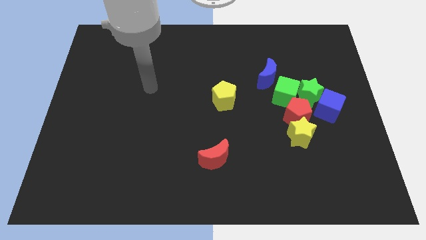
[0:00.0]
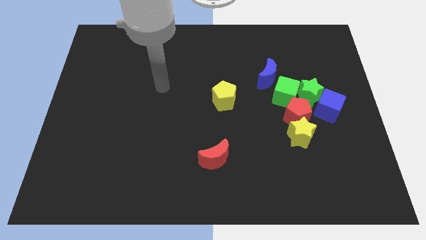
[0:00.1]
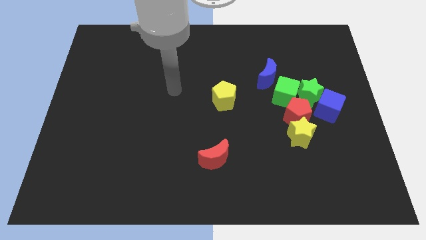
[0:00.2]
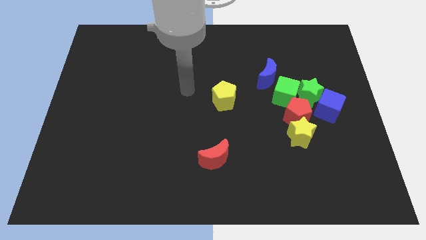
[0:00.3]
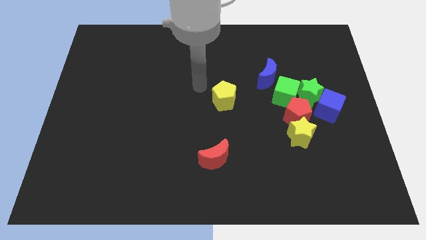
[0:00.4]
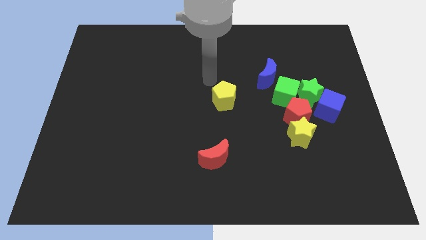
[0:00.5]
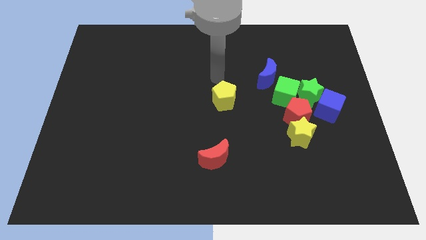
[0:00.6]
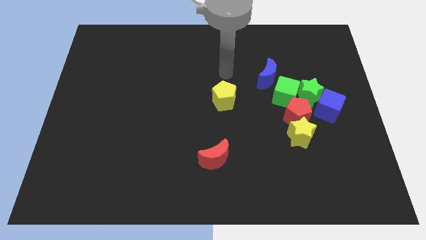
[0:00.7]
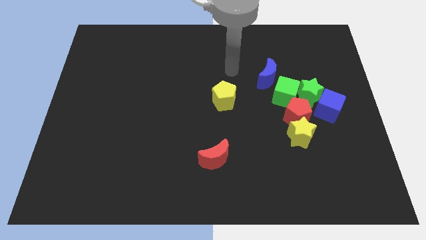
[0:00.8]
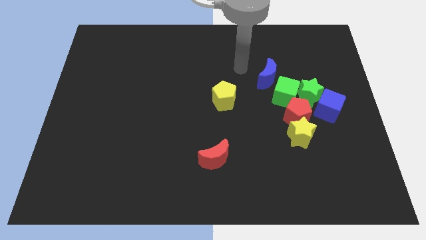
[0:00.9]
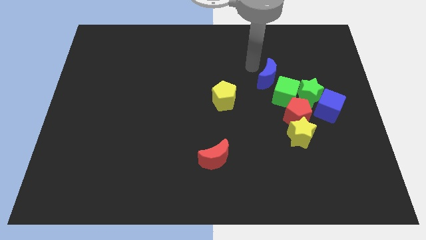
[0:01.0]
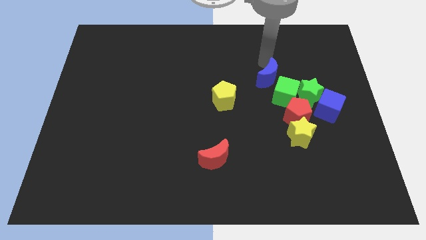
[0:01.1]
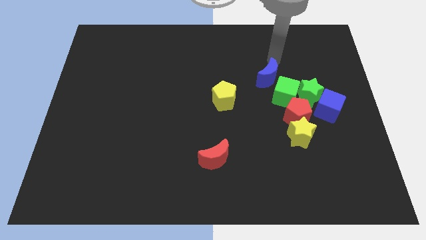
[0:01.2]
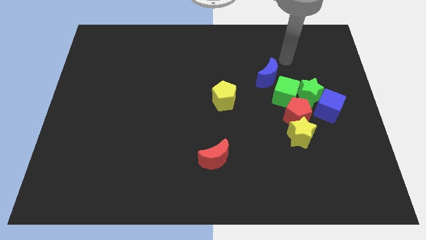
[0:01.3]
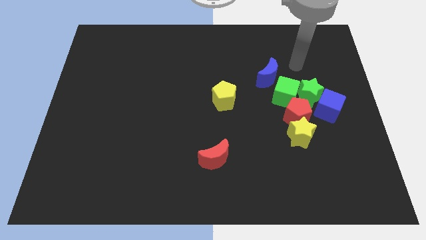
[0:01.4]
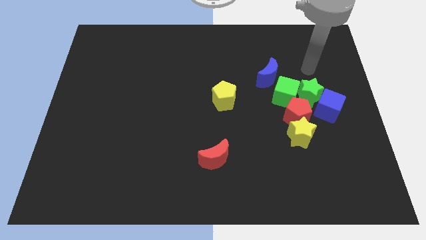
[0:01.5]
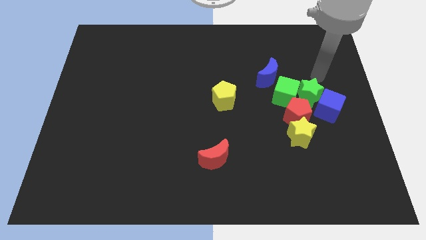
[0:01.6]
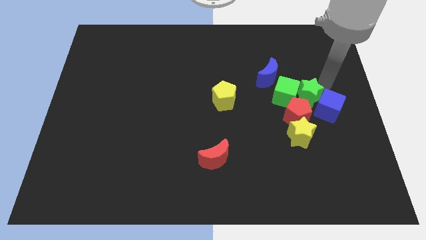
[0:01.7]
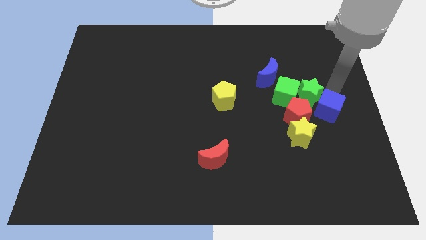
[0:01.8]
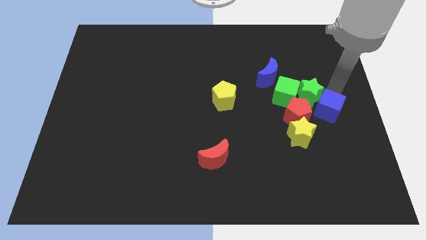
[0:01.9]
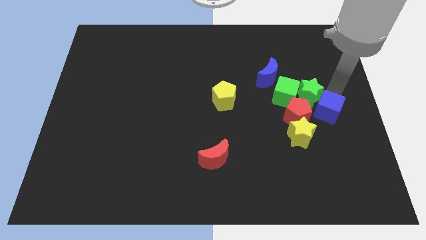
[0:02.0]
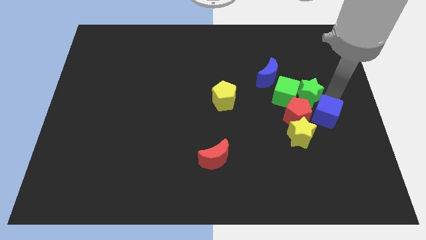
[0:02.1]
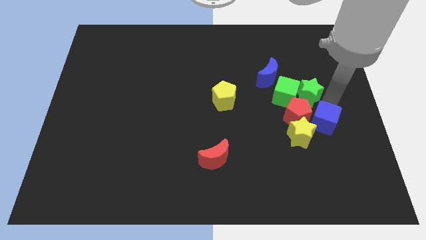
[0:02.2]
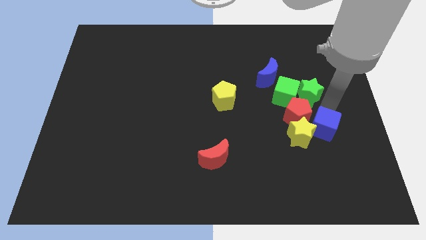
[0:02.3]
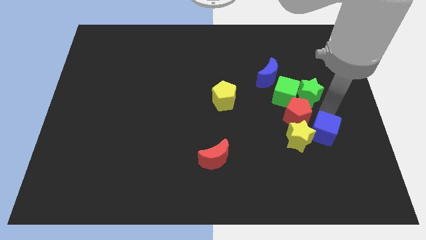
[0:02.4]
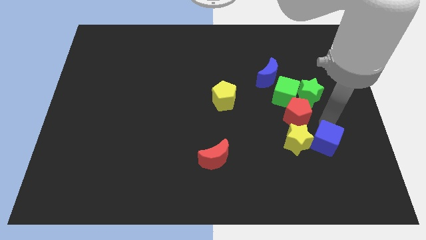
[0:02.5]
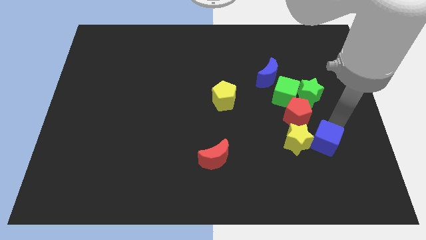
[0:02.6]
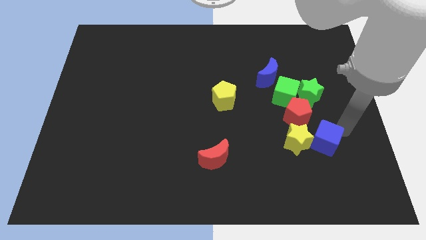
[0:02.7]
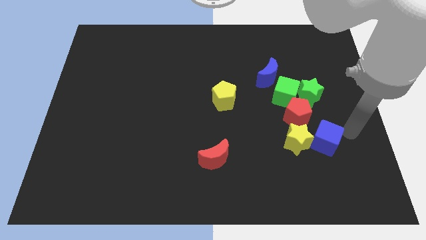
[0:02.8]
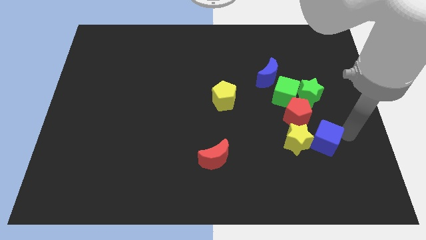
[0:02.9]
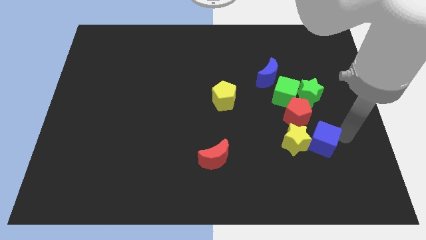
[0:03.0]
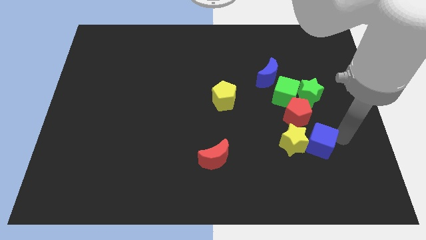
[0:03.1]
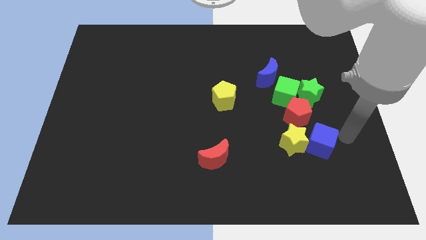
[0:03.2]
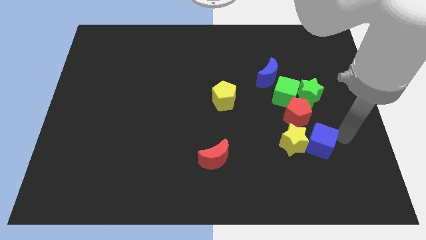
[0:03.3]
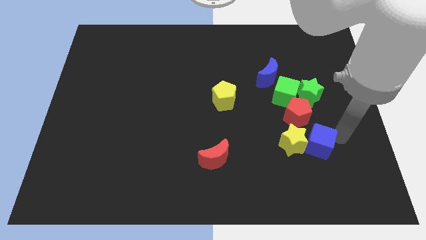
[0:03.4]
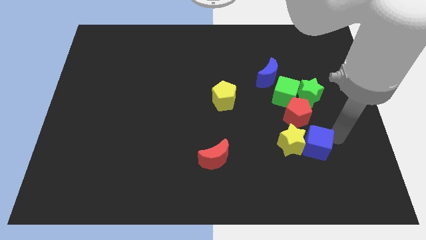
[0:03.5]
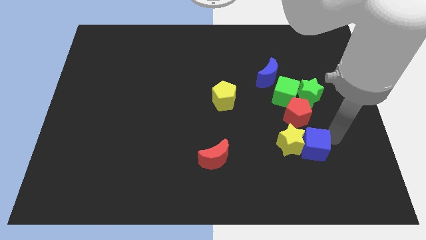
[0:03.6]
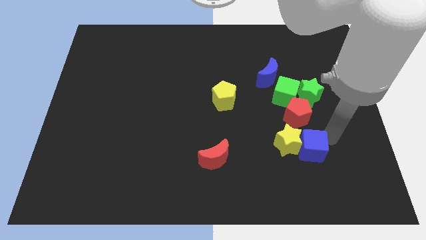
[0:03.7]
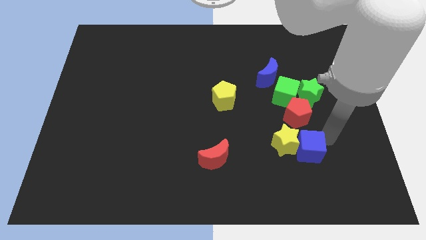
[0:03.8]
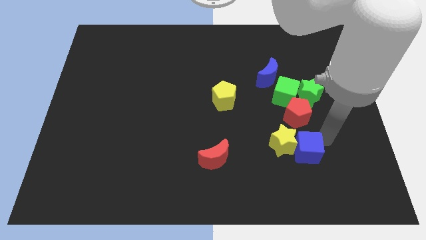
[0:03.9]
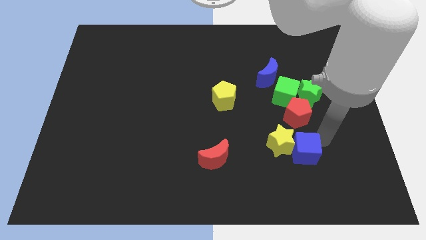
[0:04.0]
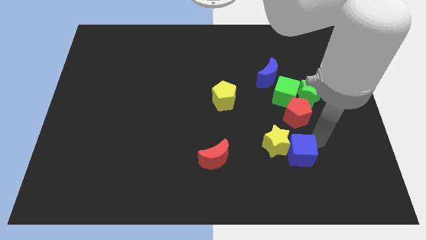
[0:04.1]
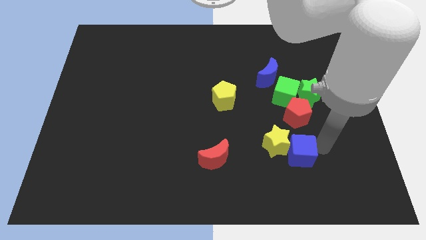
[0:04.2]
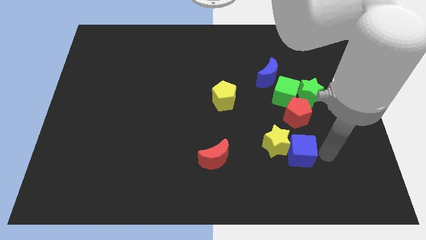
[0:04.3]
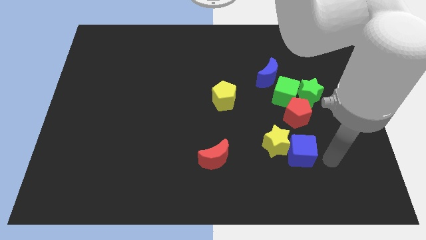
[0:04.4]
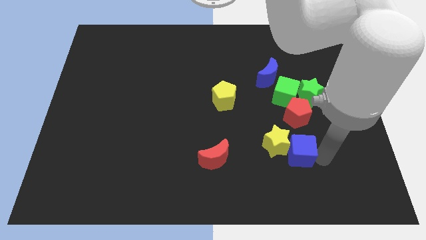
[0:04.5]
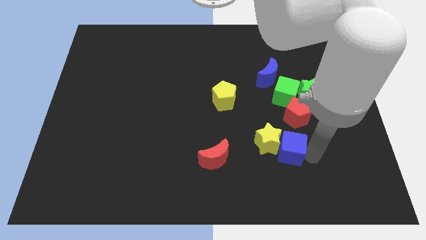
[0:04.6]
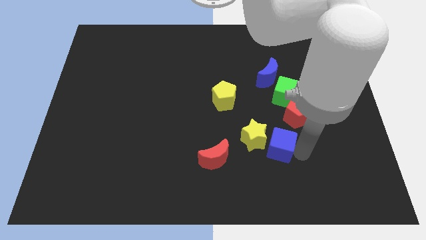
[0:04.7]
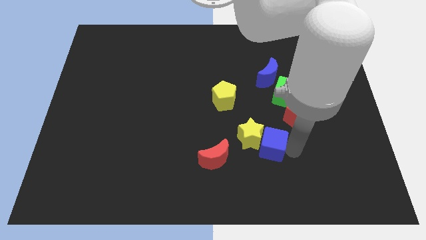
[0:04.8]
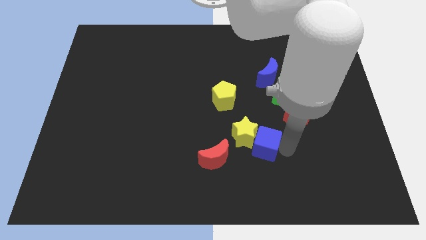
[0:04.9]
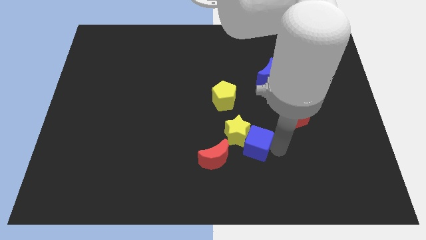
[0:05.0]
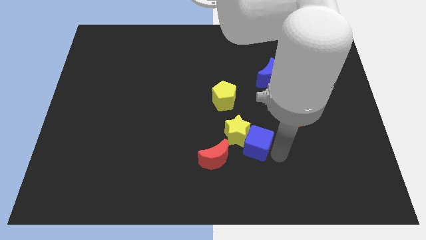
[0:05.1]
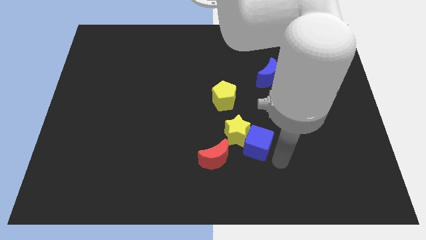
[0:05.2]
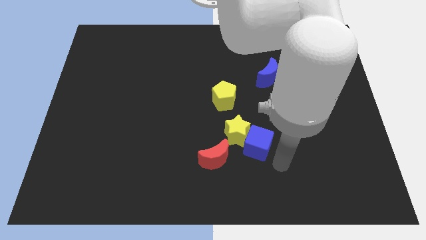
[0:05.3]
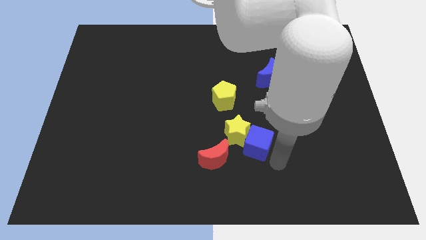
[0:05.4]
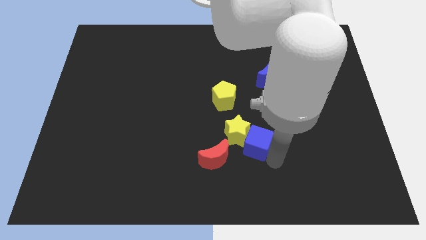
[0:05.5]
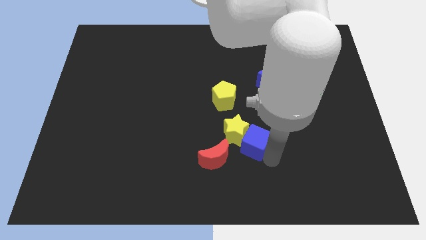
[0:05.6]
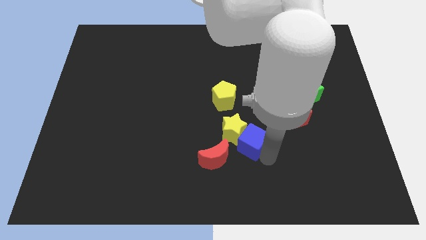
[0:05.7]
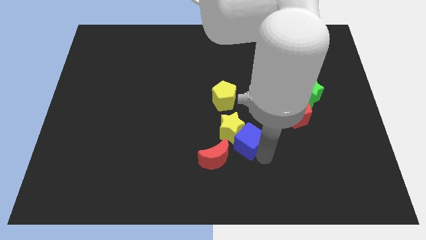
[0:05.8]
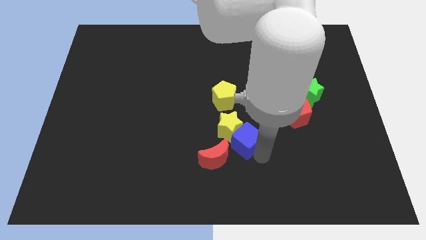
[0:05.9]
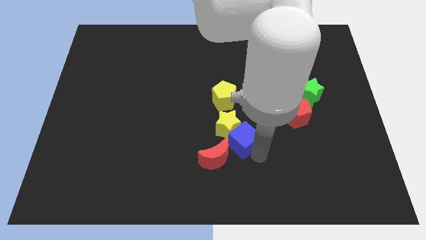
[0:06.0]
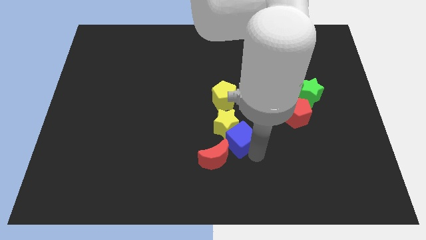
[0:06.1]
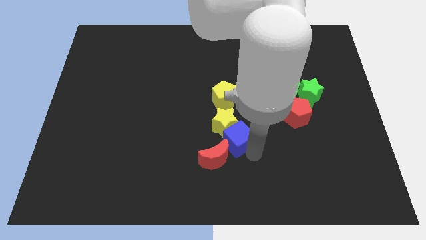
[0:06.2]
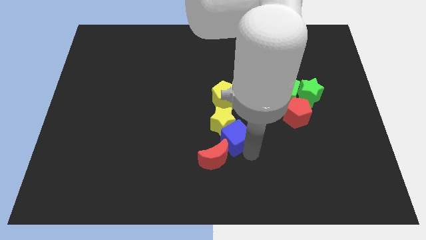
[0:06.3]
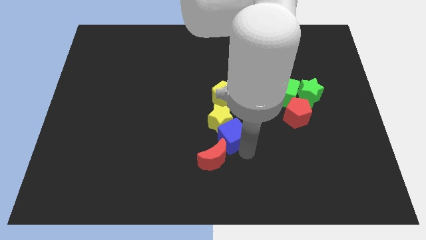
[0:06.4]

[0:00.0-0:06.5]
push the blue cube left

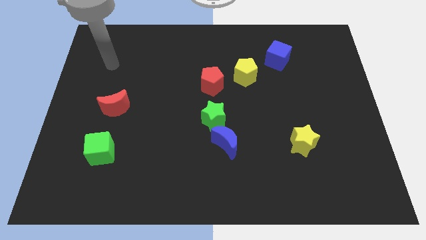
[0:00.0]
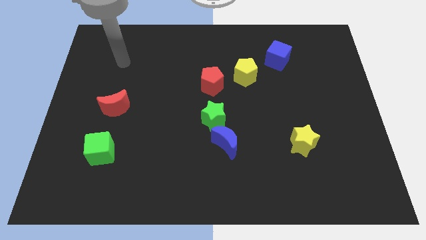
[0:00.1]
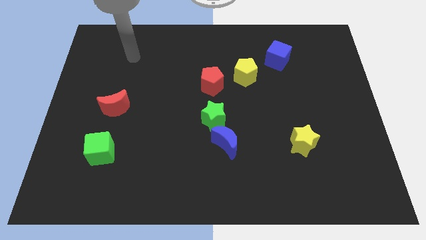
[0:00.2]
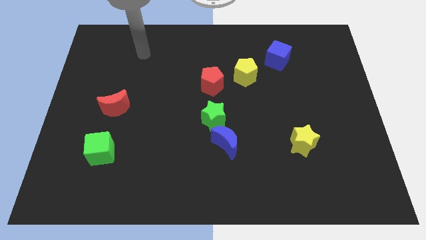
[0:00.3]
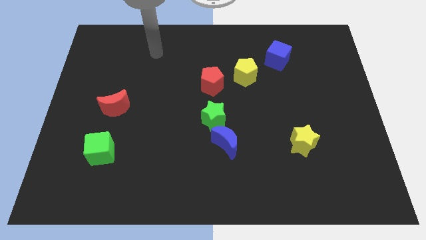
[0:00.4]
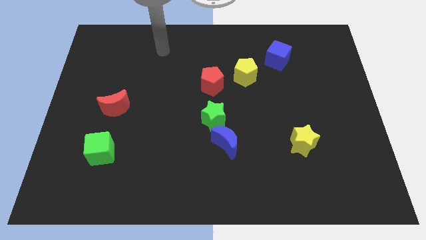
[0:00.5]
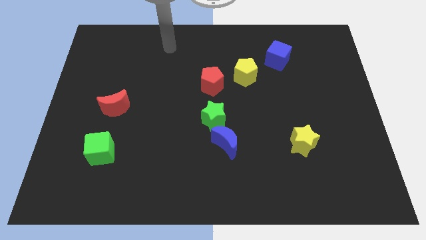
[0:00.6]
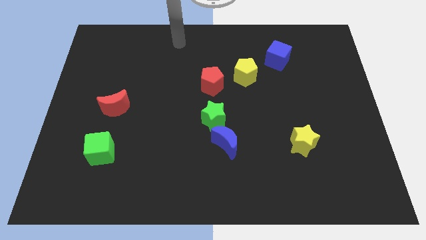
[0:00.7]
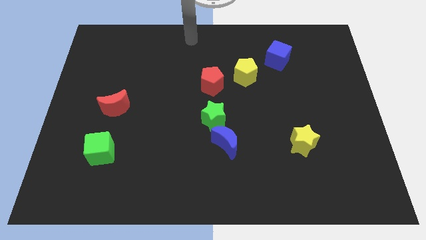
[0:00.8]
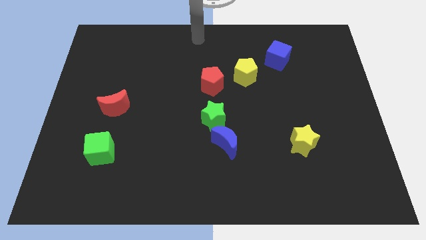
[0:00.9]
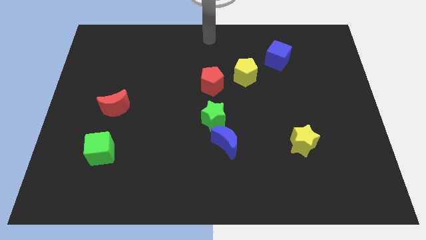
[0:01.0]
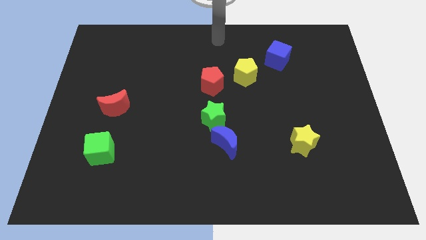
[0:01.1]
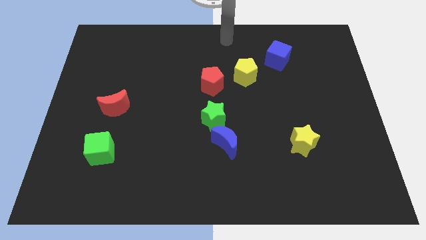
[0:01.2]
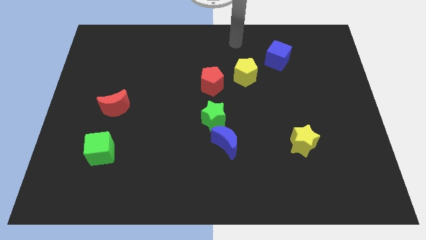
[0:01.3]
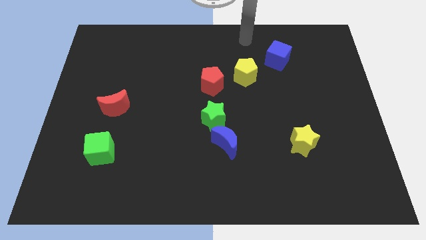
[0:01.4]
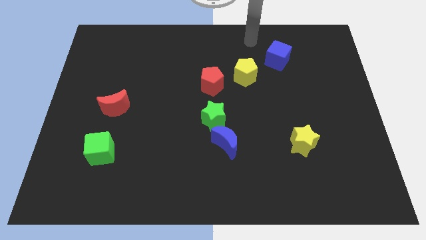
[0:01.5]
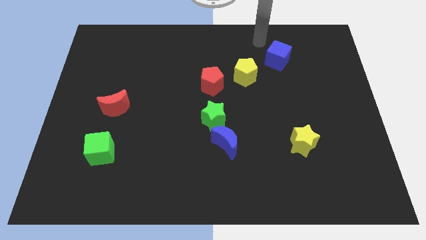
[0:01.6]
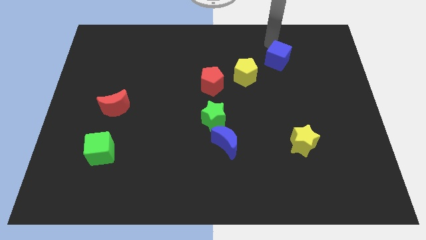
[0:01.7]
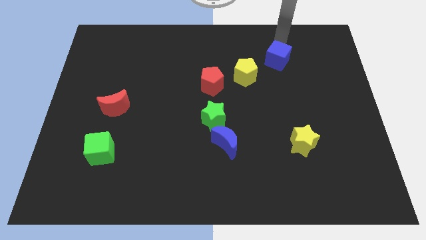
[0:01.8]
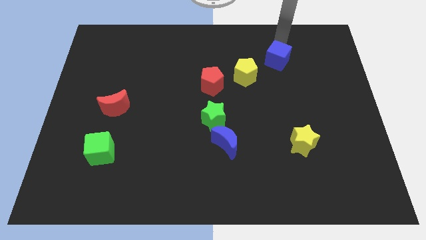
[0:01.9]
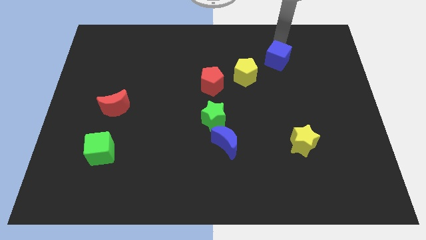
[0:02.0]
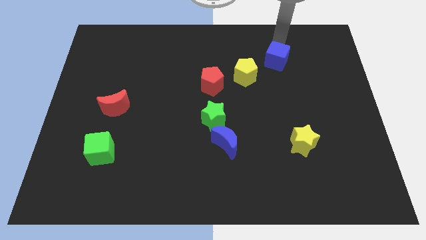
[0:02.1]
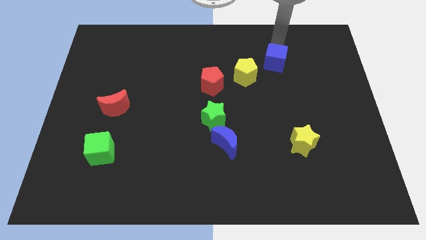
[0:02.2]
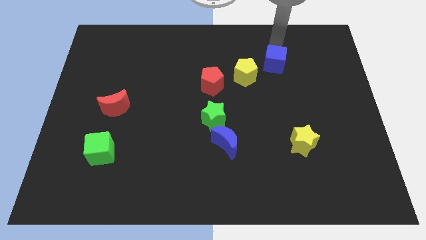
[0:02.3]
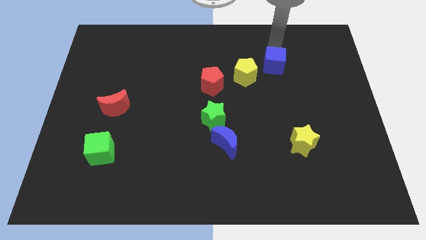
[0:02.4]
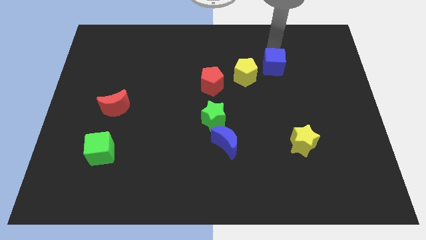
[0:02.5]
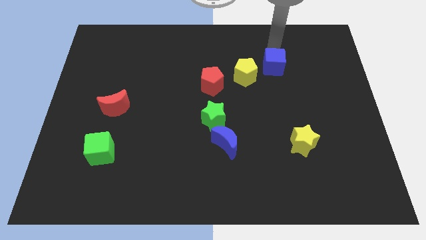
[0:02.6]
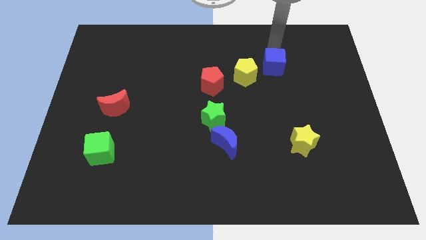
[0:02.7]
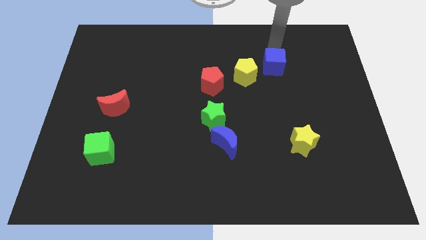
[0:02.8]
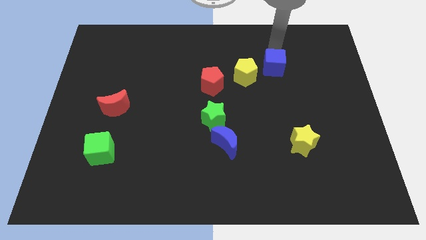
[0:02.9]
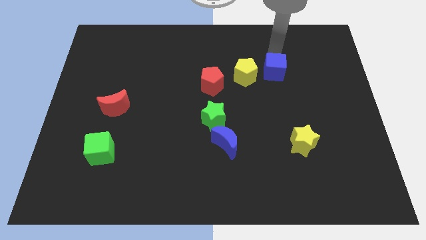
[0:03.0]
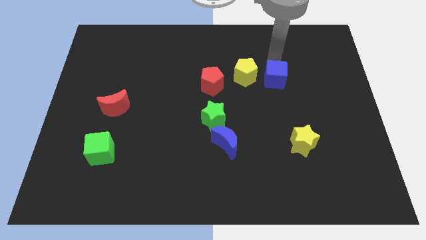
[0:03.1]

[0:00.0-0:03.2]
move the blue cube down a bit
